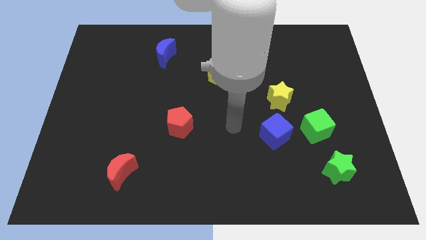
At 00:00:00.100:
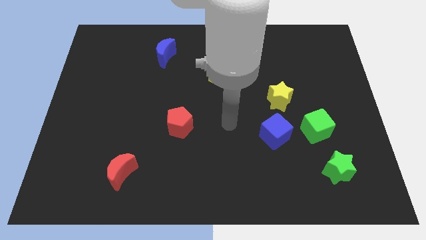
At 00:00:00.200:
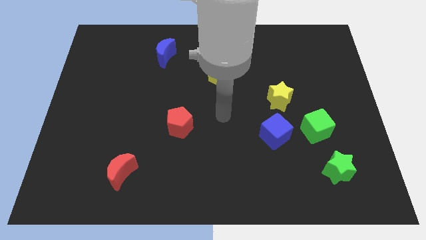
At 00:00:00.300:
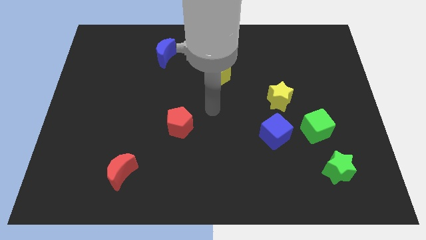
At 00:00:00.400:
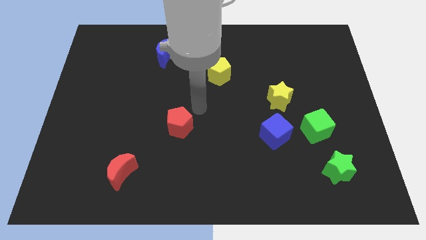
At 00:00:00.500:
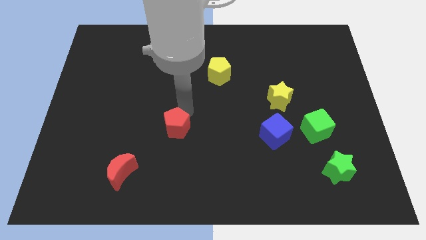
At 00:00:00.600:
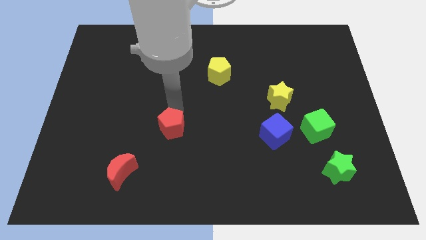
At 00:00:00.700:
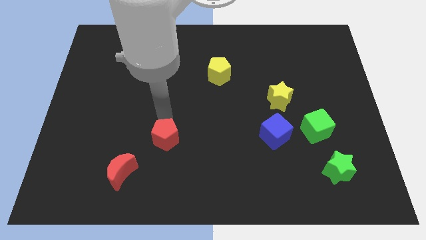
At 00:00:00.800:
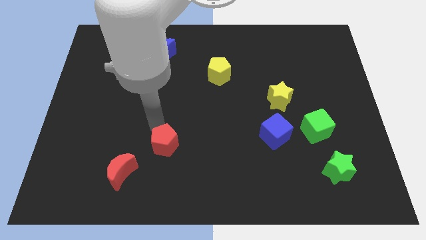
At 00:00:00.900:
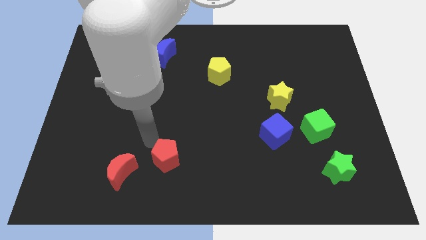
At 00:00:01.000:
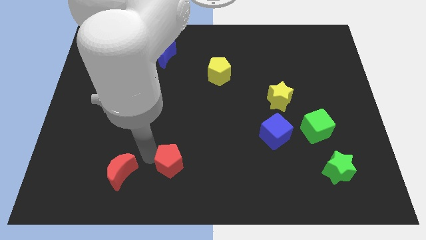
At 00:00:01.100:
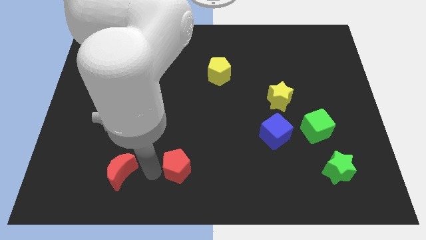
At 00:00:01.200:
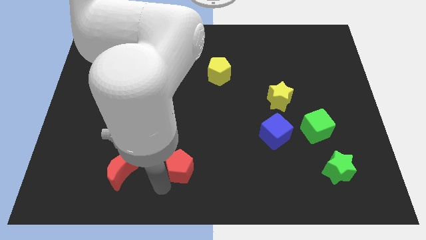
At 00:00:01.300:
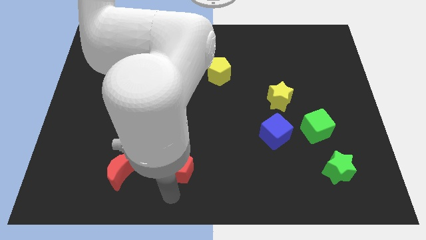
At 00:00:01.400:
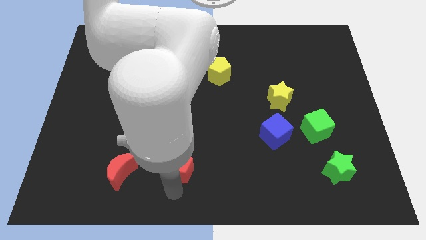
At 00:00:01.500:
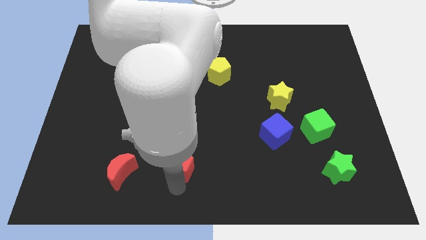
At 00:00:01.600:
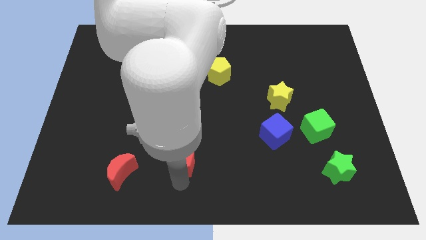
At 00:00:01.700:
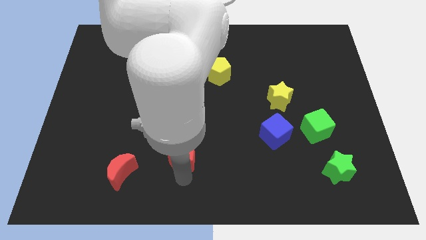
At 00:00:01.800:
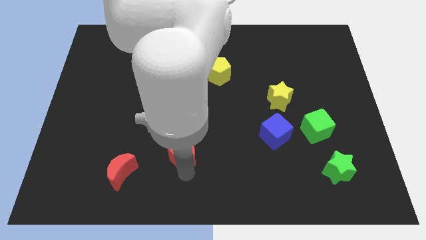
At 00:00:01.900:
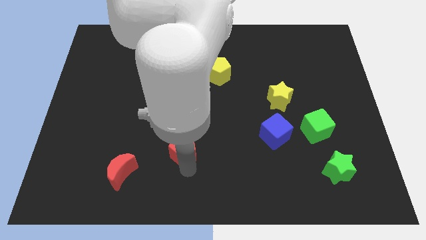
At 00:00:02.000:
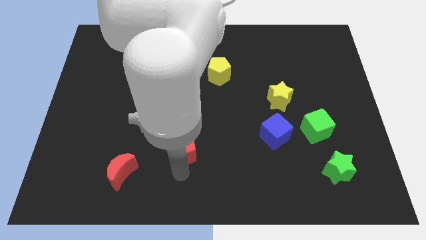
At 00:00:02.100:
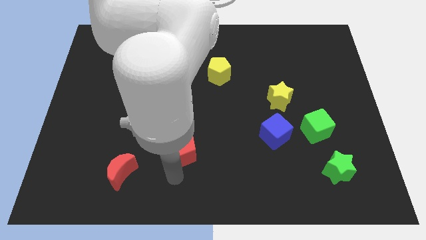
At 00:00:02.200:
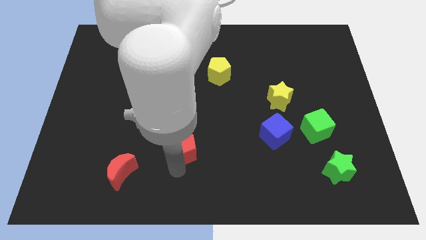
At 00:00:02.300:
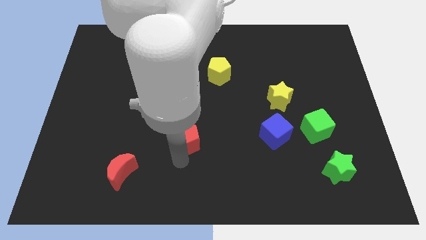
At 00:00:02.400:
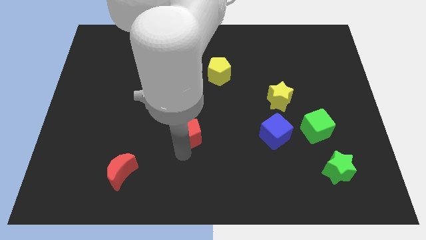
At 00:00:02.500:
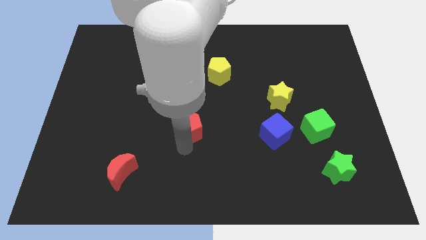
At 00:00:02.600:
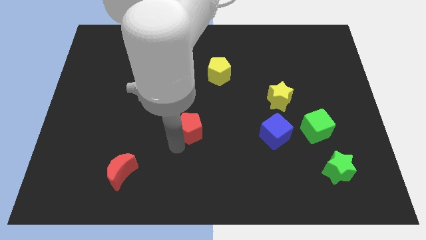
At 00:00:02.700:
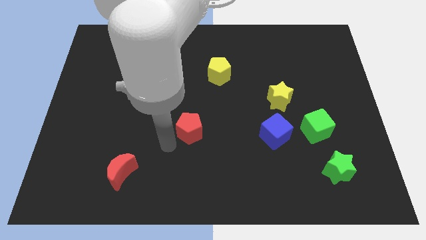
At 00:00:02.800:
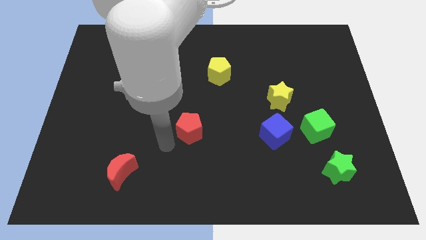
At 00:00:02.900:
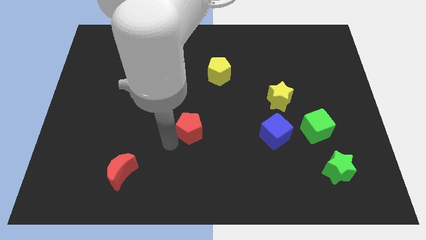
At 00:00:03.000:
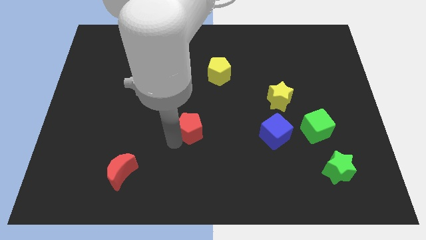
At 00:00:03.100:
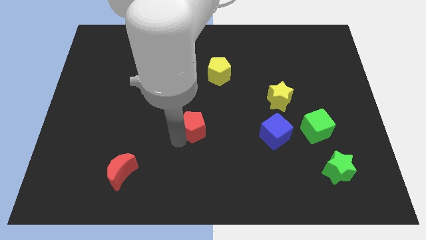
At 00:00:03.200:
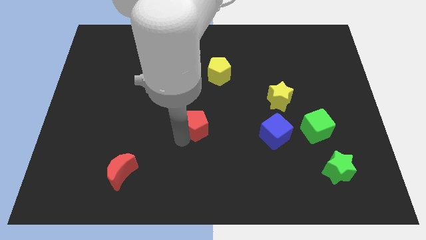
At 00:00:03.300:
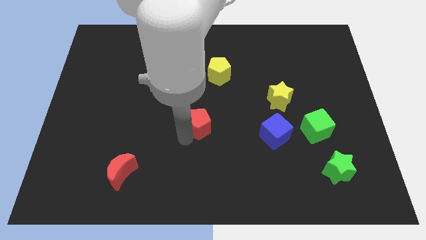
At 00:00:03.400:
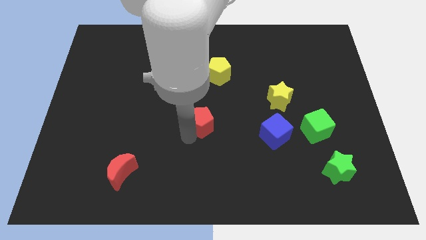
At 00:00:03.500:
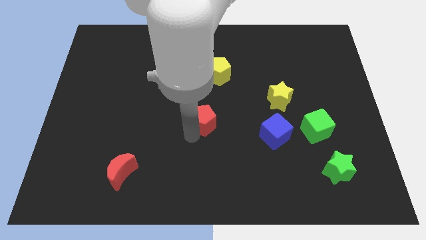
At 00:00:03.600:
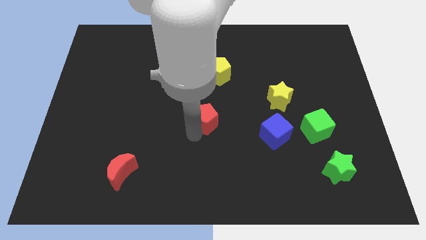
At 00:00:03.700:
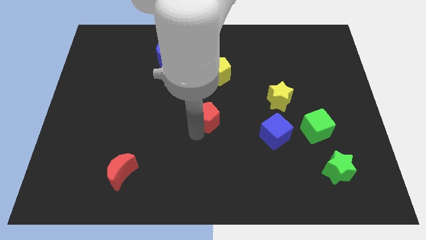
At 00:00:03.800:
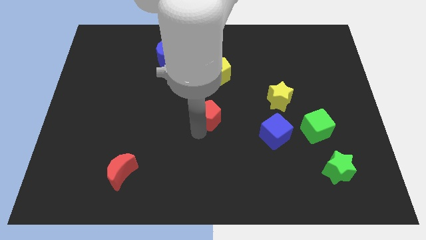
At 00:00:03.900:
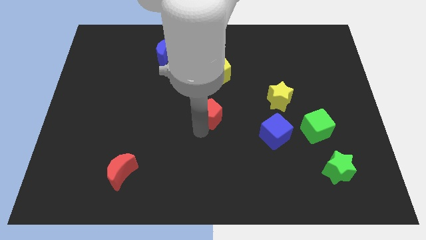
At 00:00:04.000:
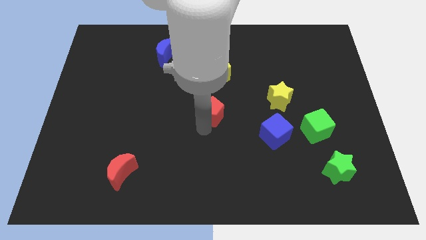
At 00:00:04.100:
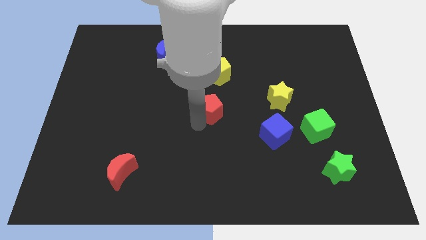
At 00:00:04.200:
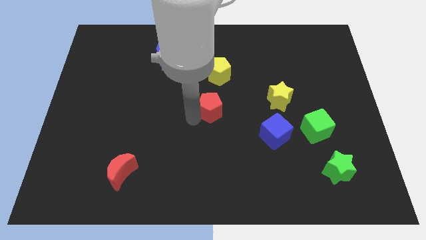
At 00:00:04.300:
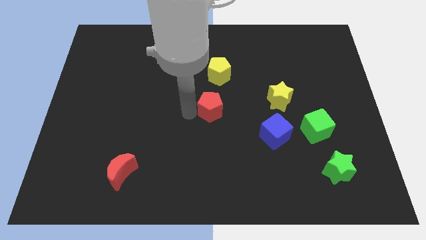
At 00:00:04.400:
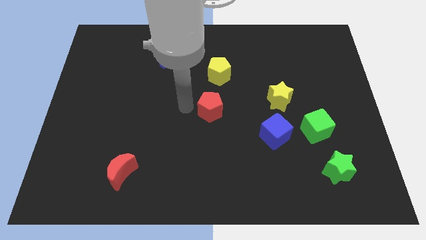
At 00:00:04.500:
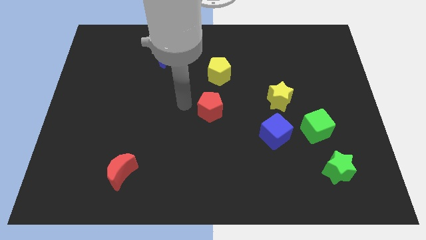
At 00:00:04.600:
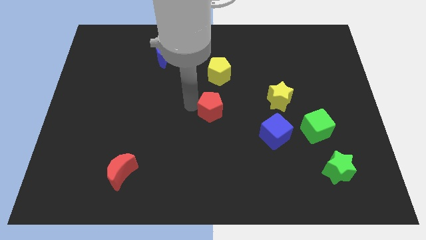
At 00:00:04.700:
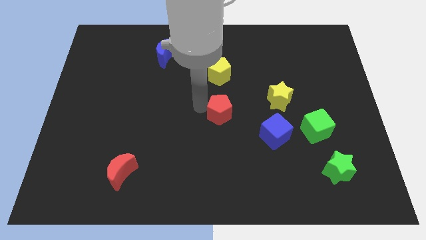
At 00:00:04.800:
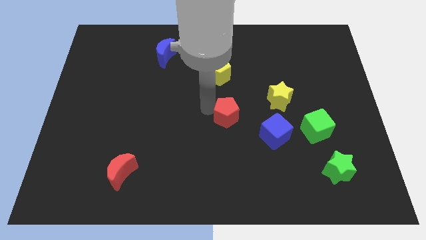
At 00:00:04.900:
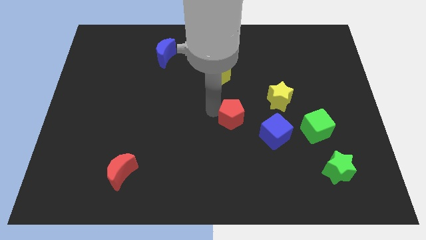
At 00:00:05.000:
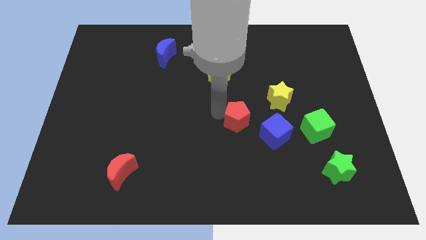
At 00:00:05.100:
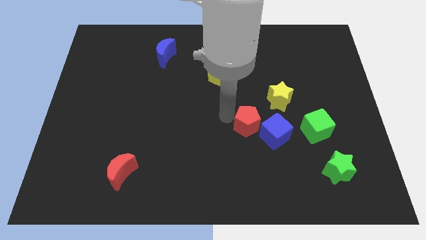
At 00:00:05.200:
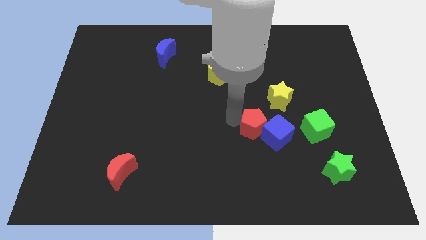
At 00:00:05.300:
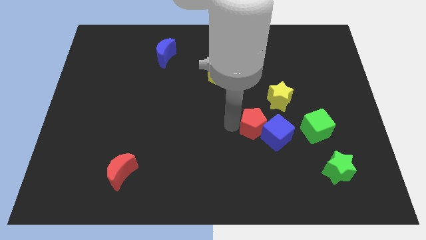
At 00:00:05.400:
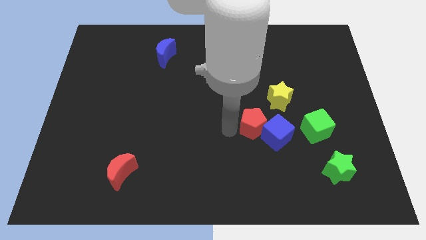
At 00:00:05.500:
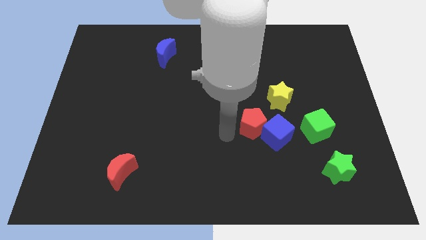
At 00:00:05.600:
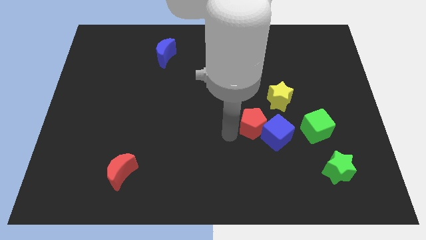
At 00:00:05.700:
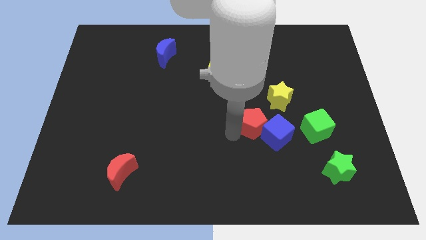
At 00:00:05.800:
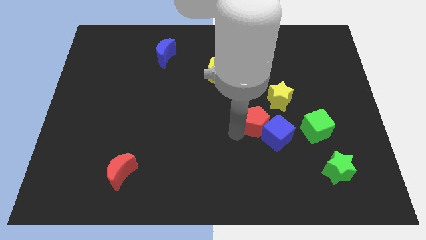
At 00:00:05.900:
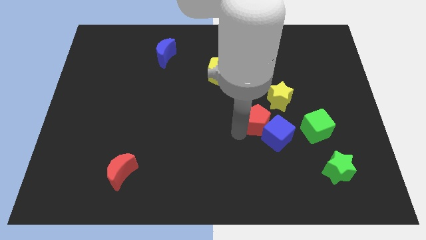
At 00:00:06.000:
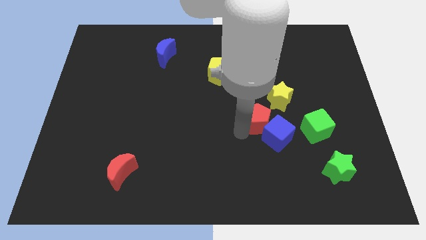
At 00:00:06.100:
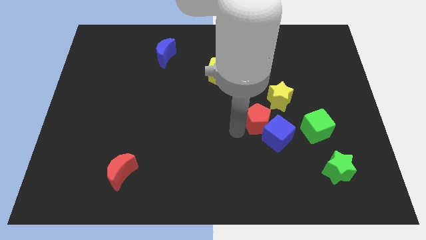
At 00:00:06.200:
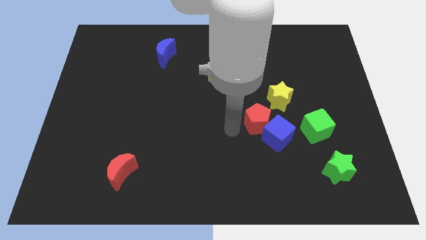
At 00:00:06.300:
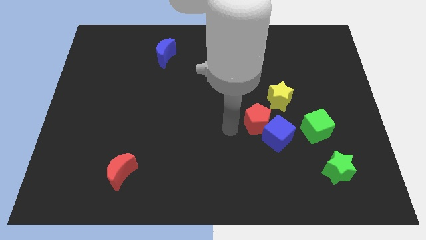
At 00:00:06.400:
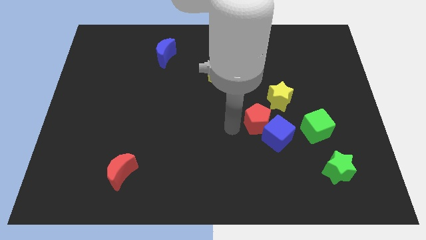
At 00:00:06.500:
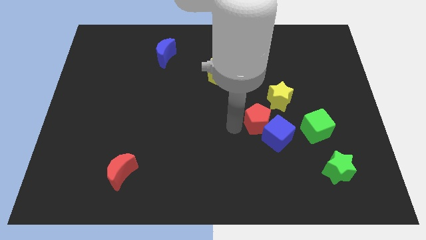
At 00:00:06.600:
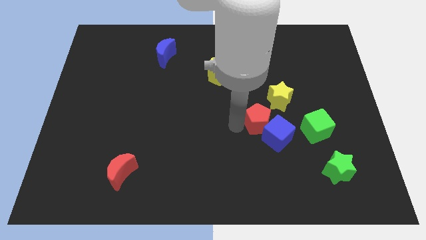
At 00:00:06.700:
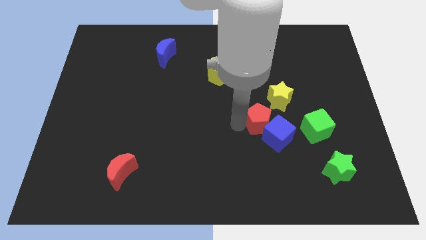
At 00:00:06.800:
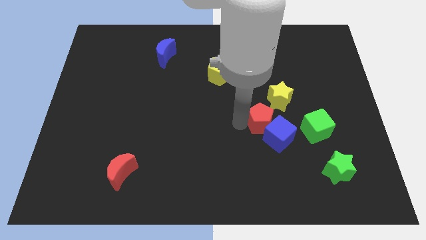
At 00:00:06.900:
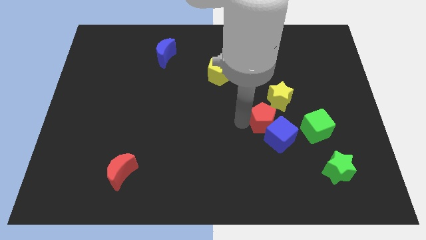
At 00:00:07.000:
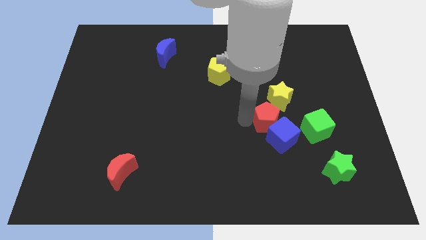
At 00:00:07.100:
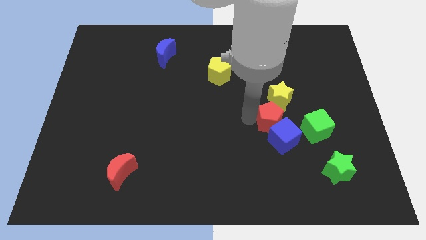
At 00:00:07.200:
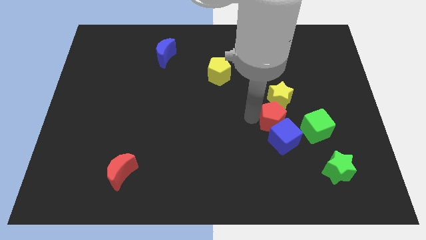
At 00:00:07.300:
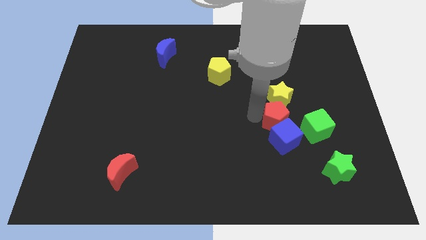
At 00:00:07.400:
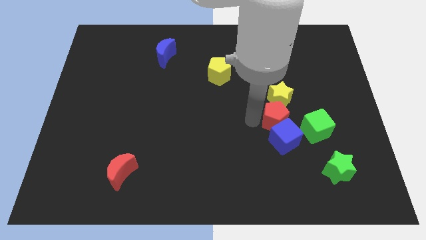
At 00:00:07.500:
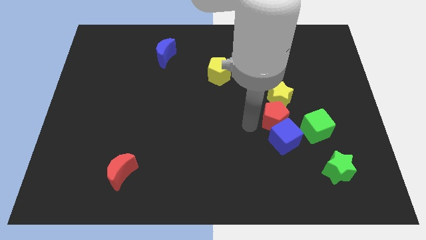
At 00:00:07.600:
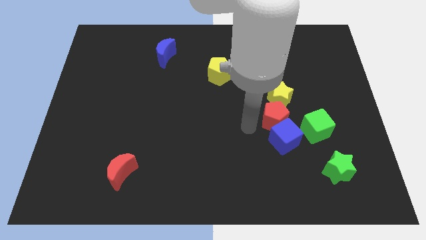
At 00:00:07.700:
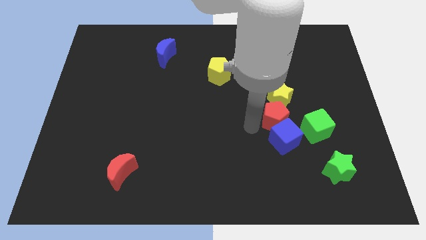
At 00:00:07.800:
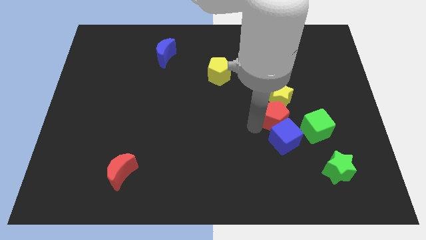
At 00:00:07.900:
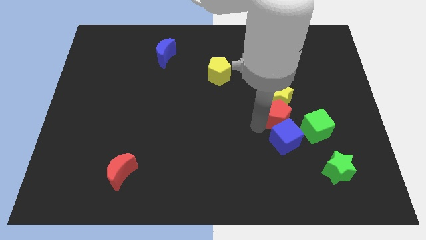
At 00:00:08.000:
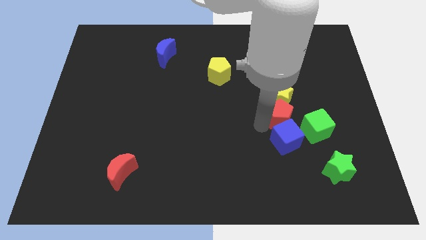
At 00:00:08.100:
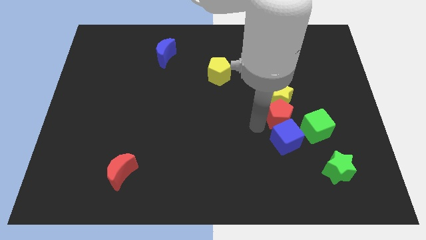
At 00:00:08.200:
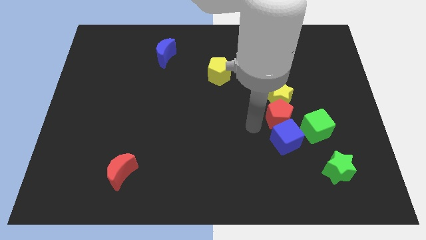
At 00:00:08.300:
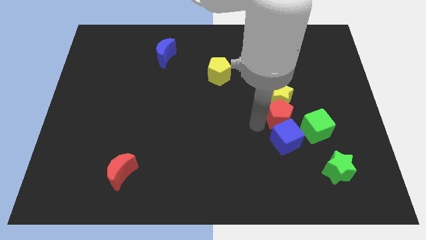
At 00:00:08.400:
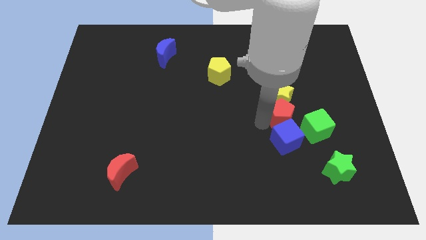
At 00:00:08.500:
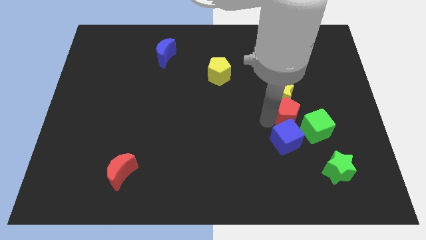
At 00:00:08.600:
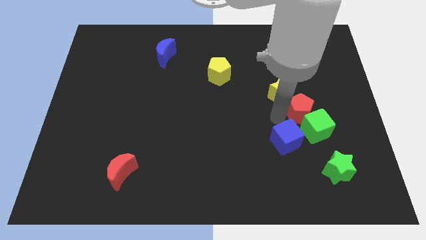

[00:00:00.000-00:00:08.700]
slide the red pentagon just right of the yellow star
